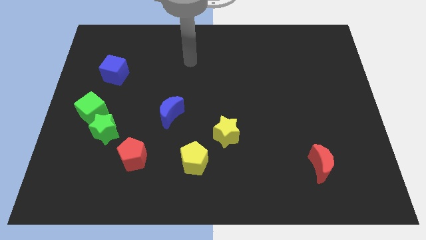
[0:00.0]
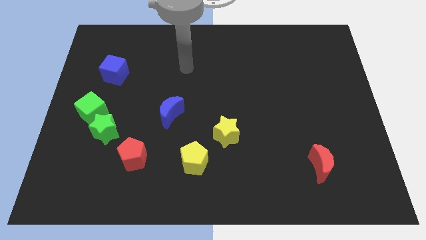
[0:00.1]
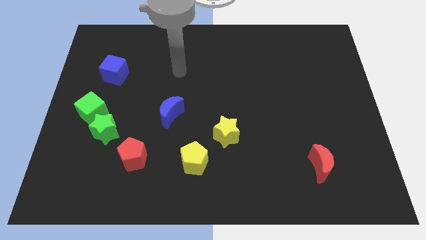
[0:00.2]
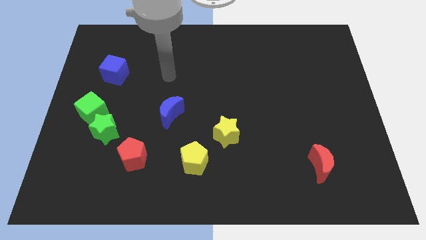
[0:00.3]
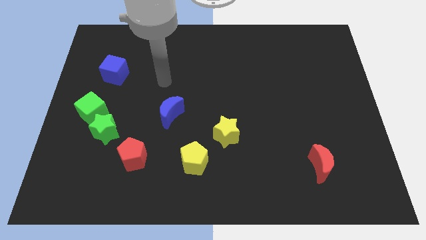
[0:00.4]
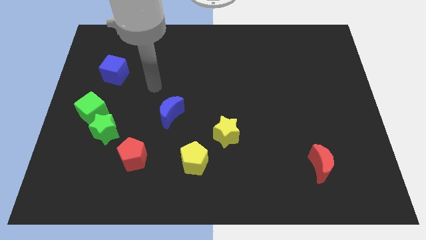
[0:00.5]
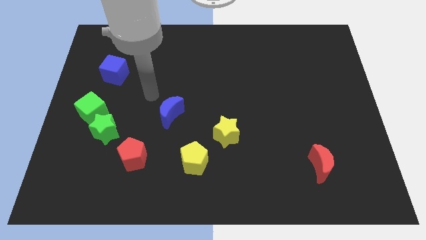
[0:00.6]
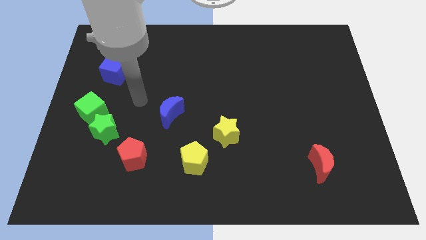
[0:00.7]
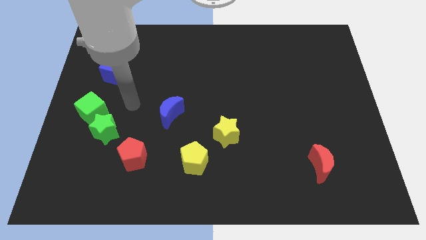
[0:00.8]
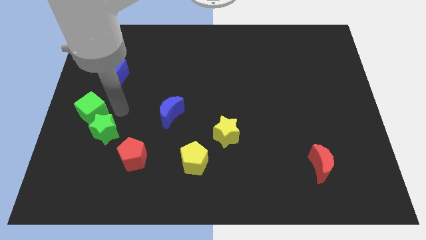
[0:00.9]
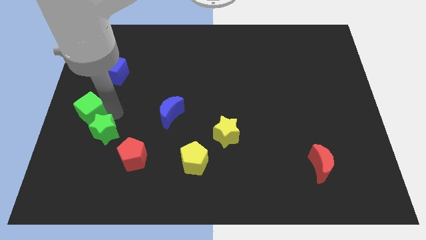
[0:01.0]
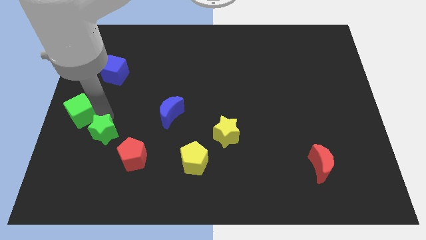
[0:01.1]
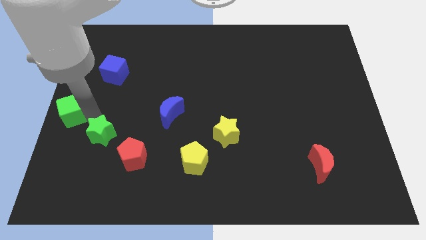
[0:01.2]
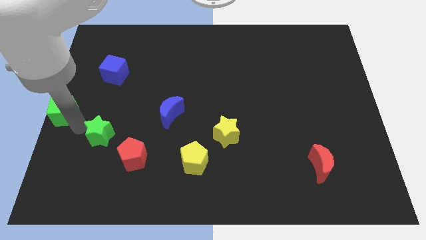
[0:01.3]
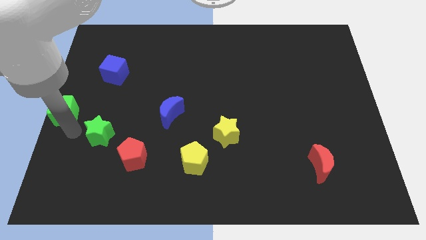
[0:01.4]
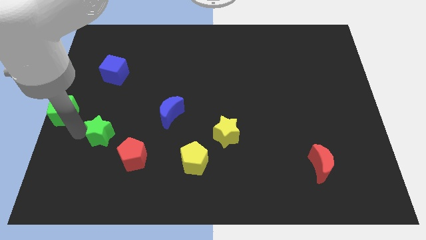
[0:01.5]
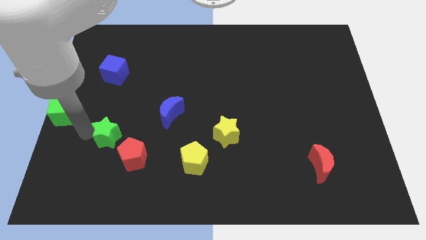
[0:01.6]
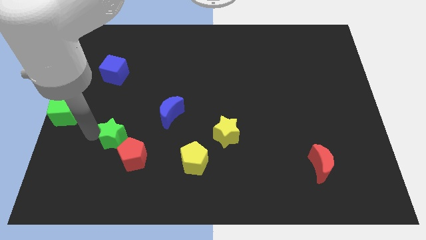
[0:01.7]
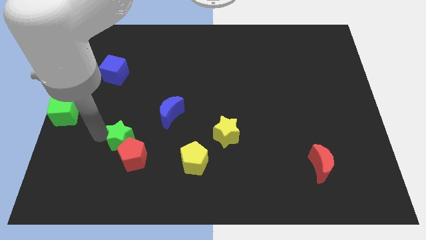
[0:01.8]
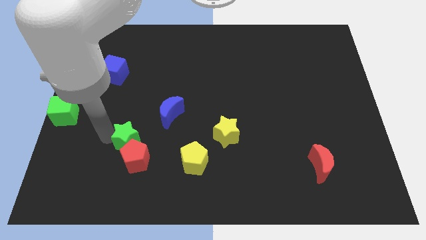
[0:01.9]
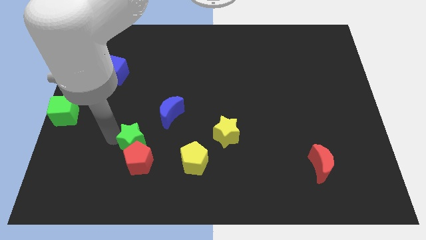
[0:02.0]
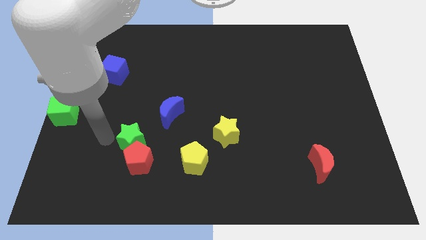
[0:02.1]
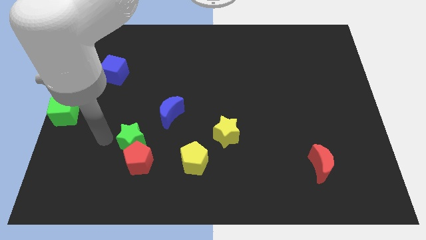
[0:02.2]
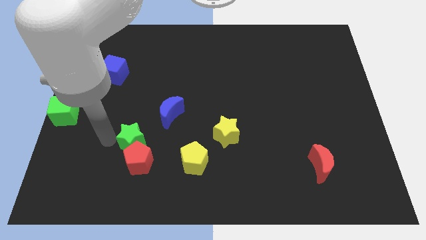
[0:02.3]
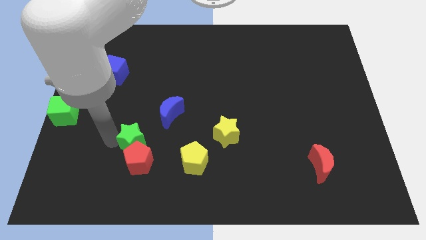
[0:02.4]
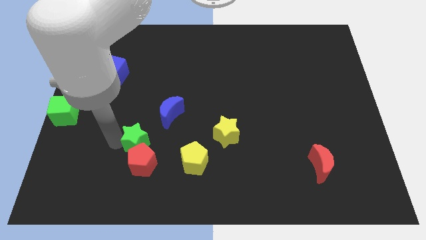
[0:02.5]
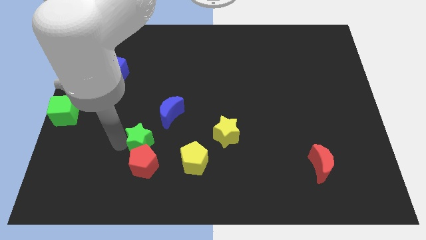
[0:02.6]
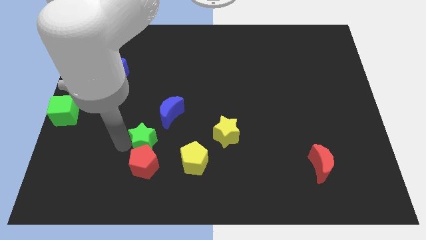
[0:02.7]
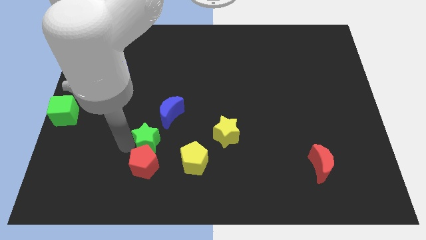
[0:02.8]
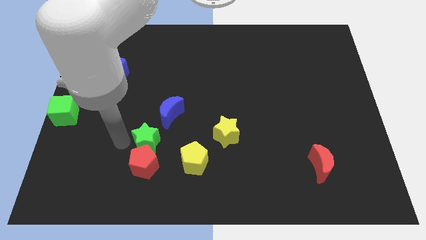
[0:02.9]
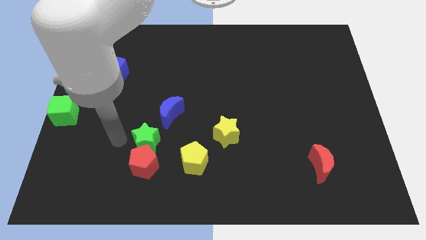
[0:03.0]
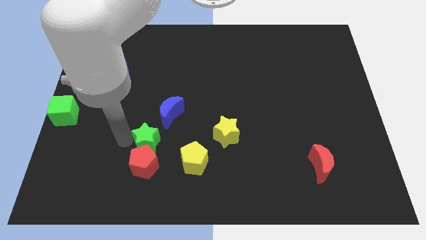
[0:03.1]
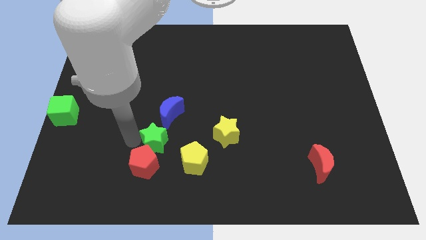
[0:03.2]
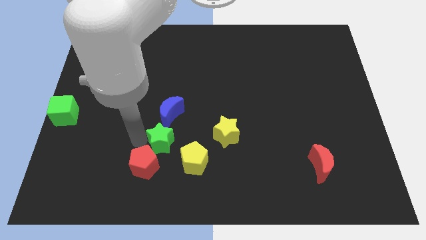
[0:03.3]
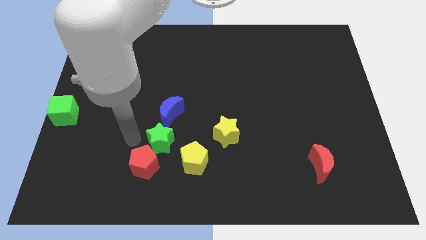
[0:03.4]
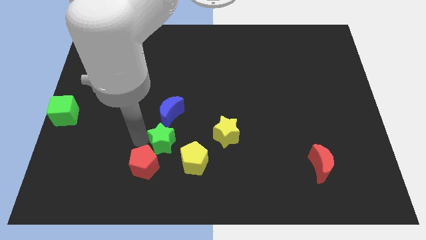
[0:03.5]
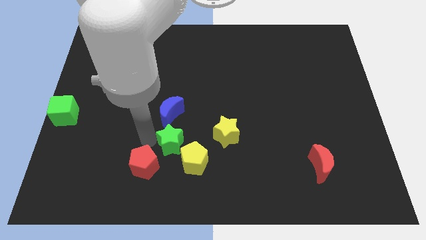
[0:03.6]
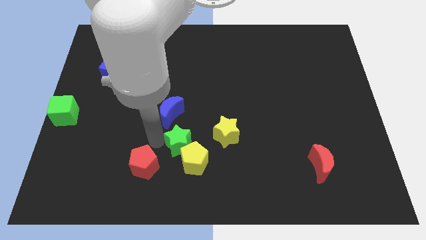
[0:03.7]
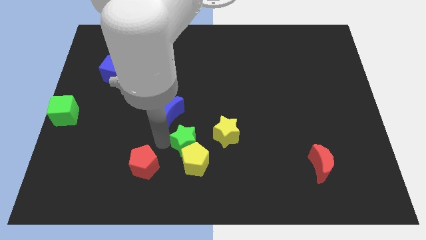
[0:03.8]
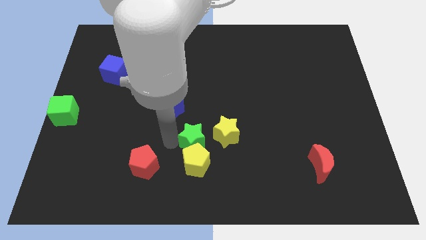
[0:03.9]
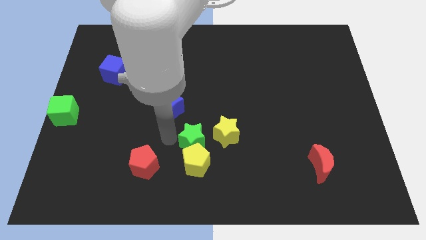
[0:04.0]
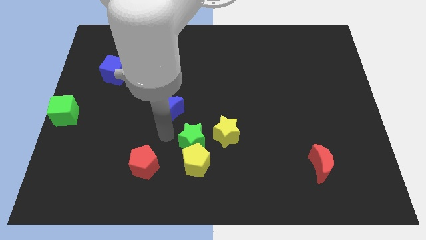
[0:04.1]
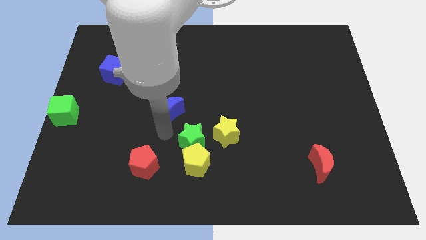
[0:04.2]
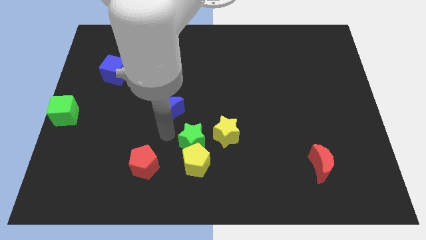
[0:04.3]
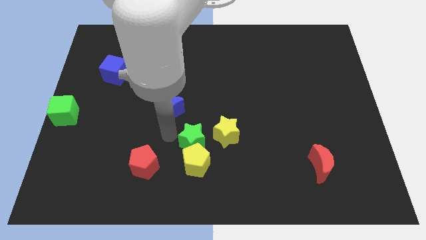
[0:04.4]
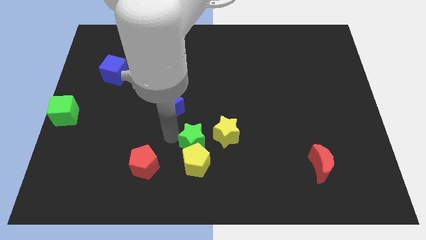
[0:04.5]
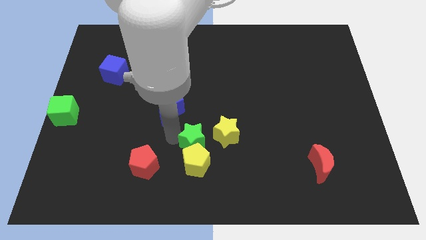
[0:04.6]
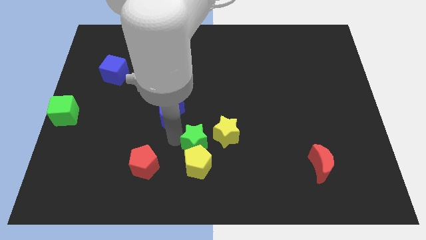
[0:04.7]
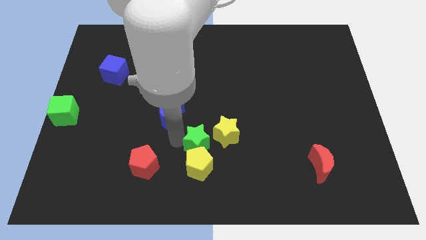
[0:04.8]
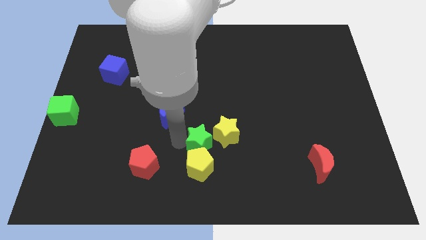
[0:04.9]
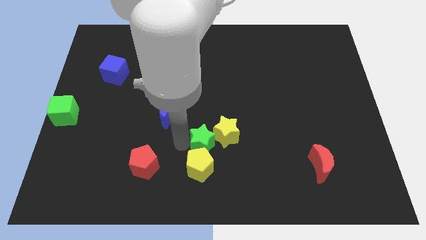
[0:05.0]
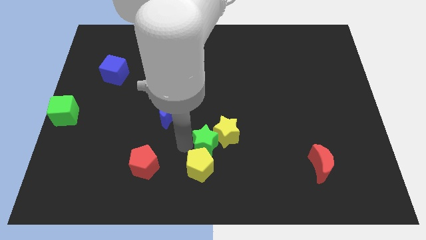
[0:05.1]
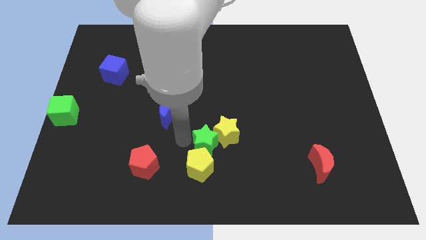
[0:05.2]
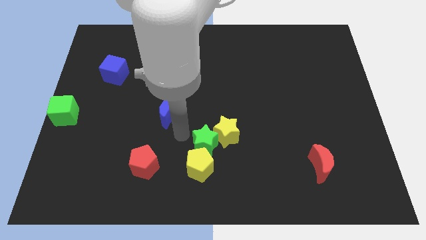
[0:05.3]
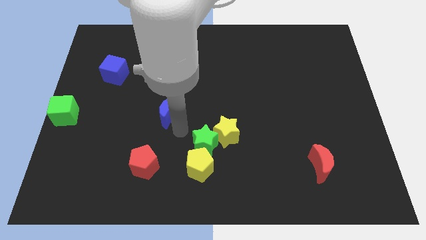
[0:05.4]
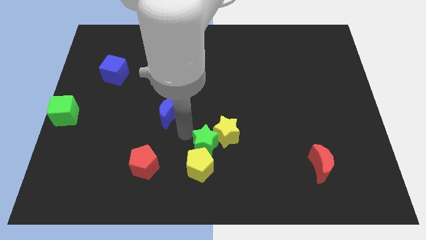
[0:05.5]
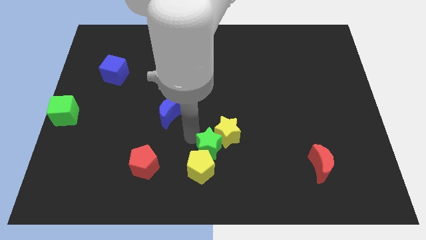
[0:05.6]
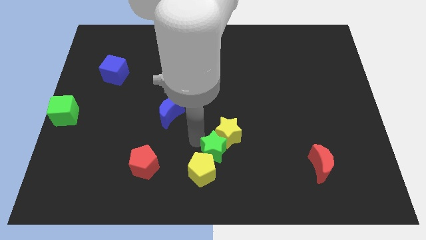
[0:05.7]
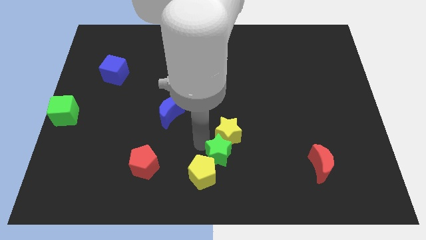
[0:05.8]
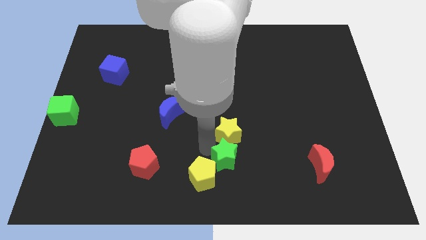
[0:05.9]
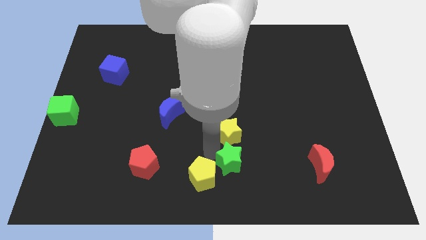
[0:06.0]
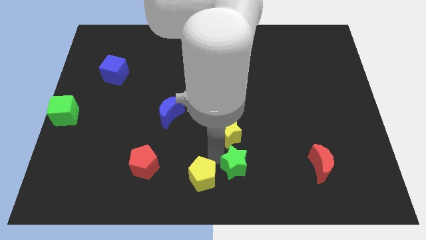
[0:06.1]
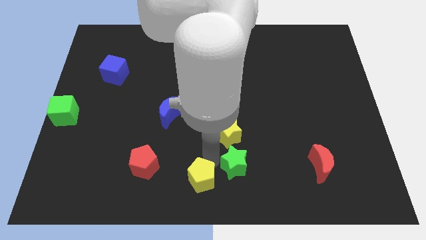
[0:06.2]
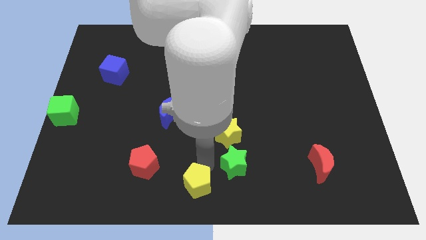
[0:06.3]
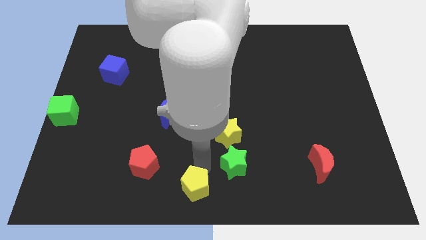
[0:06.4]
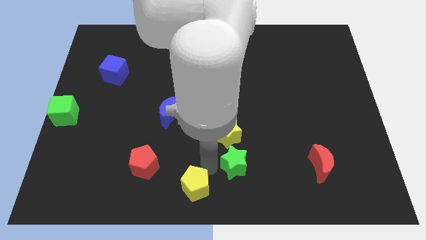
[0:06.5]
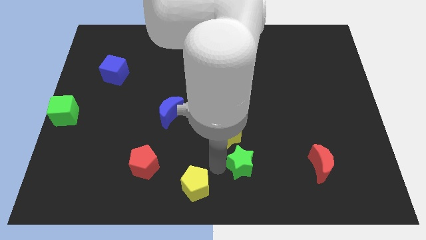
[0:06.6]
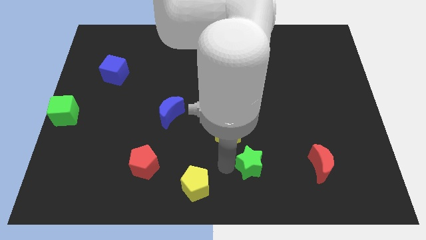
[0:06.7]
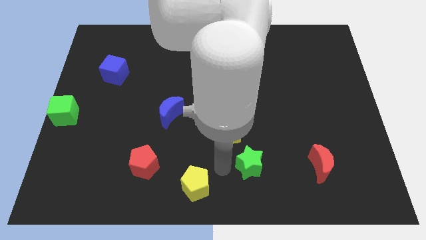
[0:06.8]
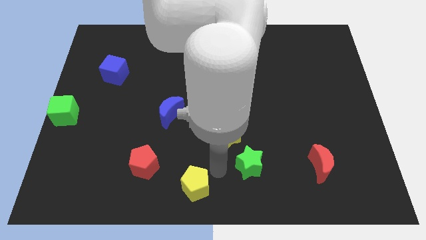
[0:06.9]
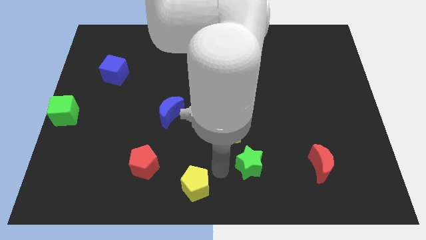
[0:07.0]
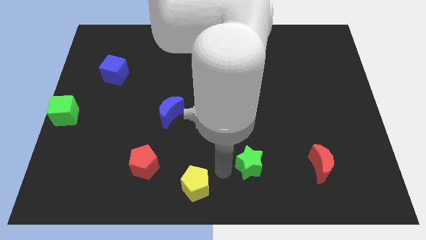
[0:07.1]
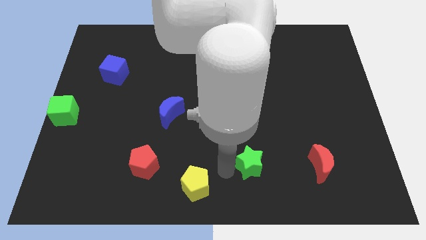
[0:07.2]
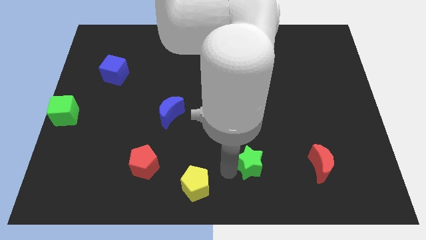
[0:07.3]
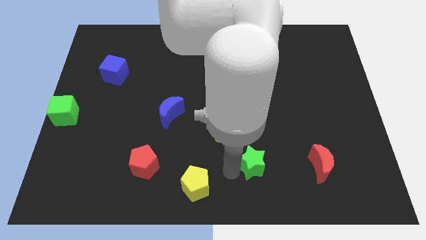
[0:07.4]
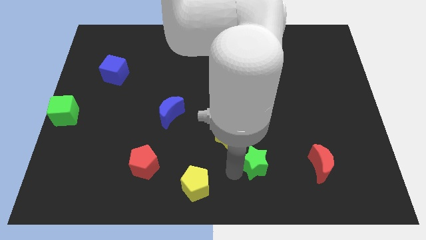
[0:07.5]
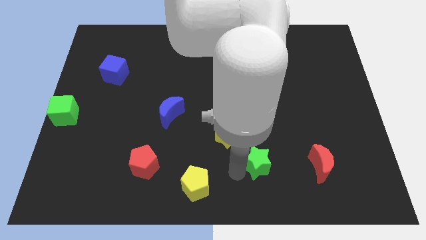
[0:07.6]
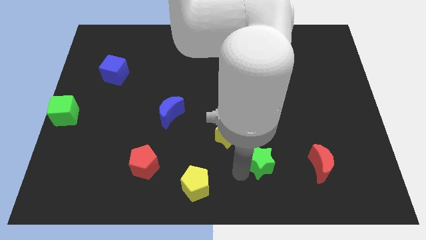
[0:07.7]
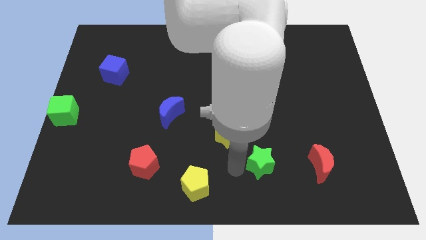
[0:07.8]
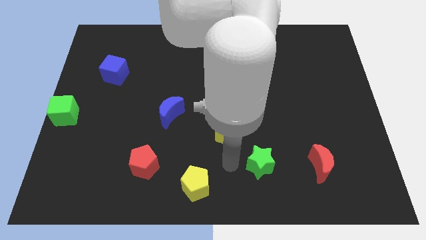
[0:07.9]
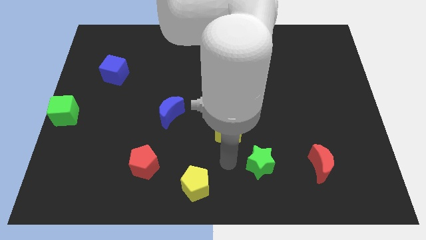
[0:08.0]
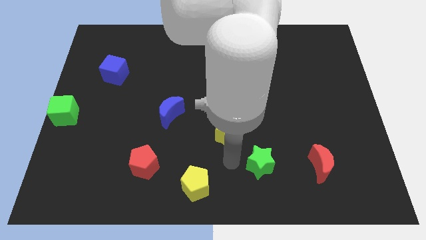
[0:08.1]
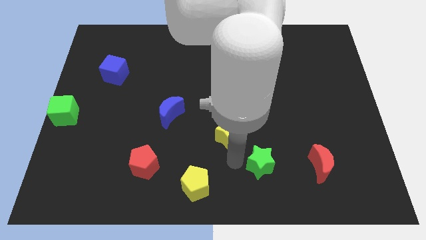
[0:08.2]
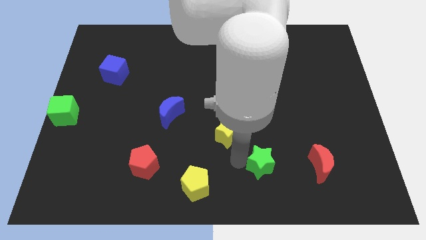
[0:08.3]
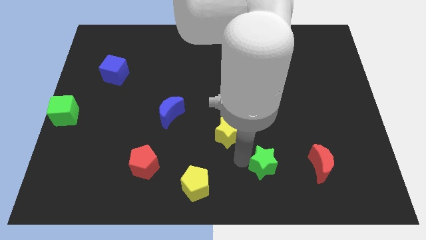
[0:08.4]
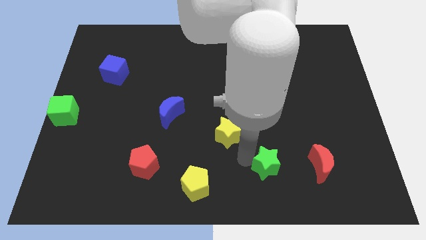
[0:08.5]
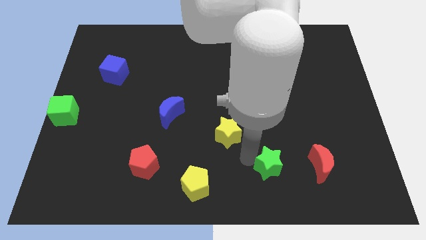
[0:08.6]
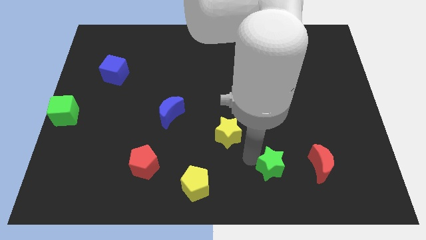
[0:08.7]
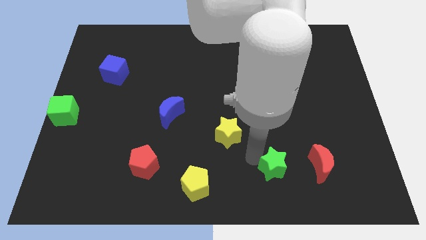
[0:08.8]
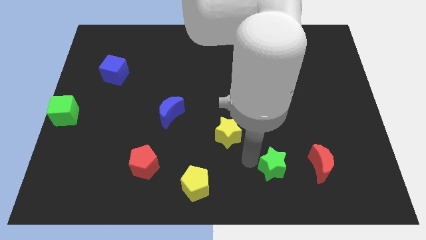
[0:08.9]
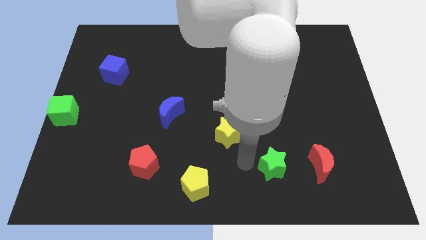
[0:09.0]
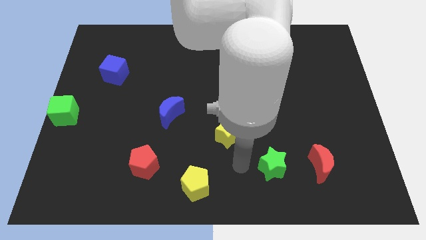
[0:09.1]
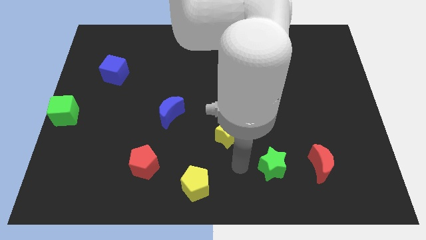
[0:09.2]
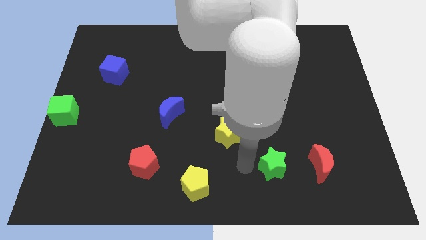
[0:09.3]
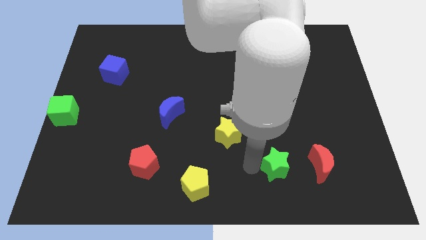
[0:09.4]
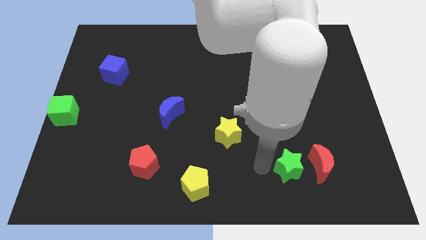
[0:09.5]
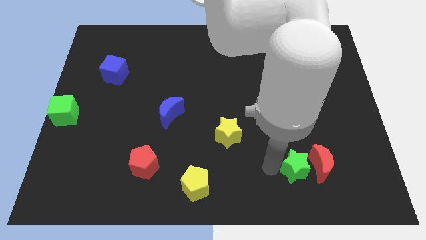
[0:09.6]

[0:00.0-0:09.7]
put the green star close to the red moon
